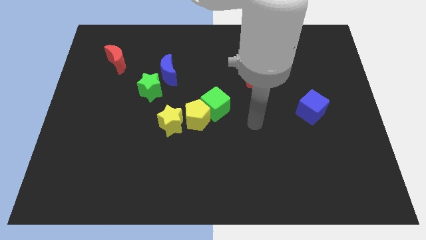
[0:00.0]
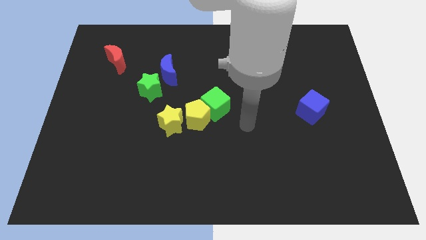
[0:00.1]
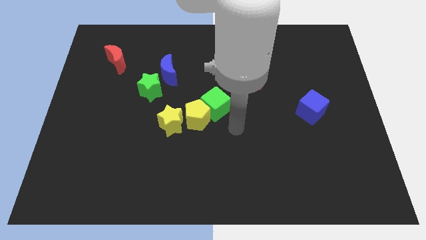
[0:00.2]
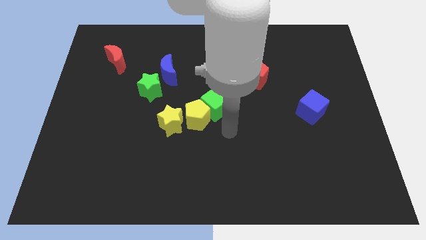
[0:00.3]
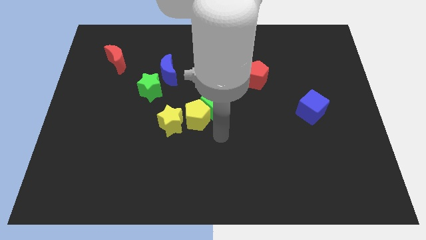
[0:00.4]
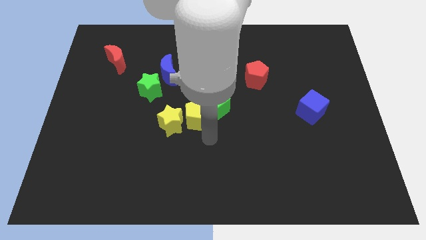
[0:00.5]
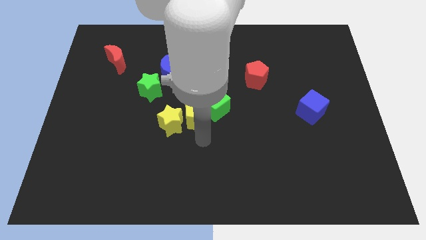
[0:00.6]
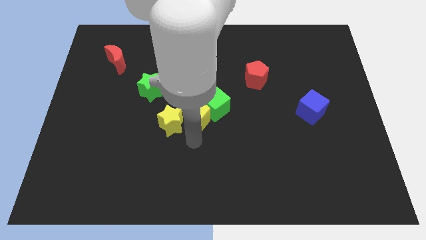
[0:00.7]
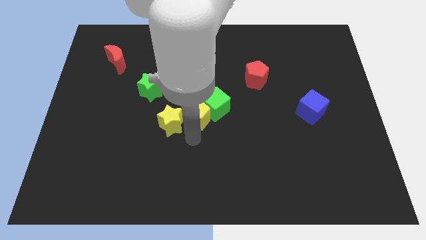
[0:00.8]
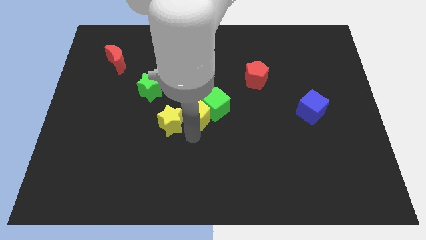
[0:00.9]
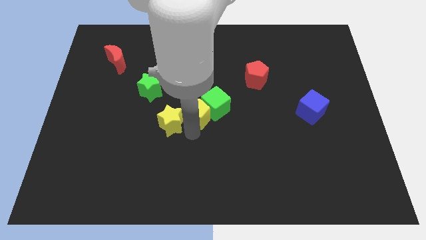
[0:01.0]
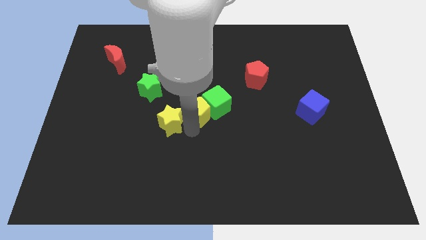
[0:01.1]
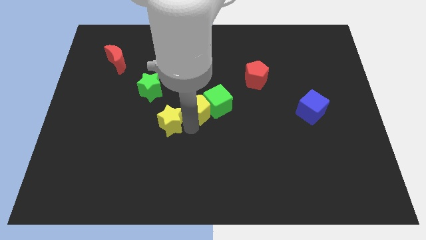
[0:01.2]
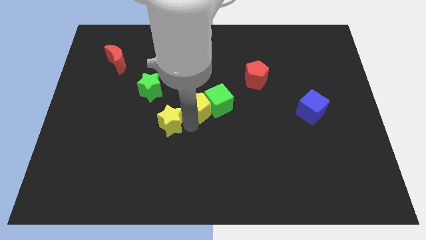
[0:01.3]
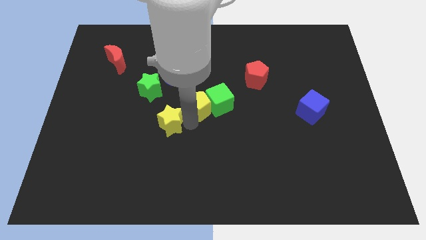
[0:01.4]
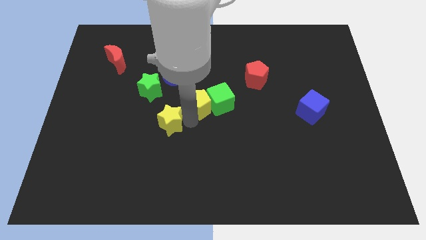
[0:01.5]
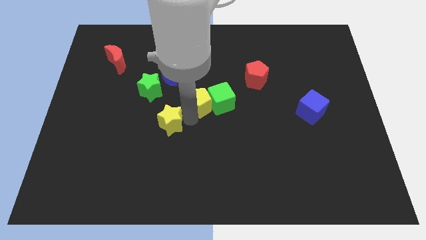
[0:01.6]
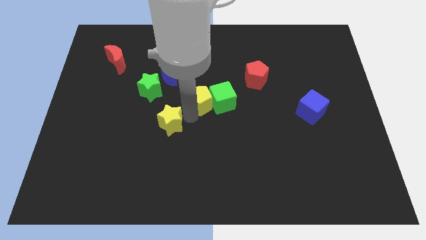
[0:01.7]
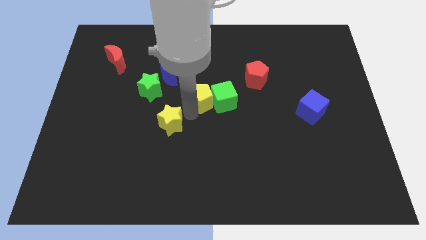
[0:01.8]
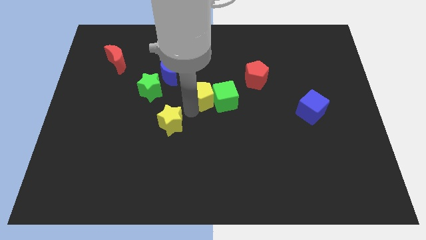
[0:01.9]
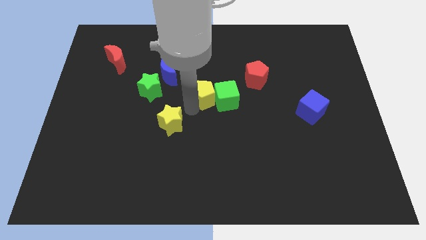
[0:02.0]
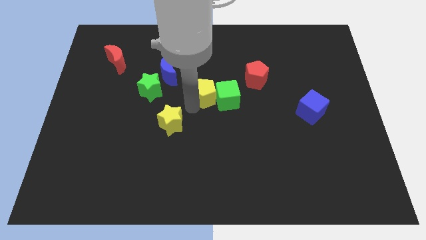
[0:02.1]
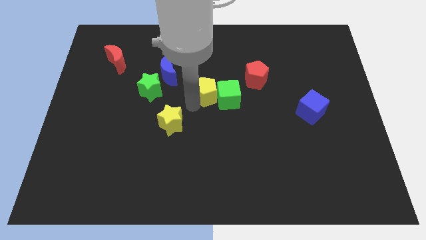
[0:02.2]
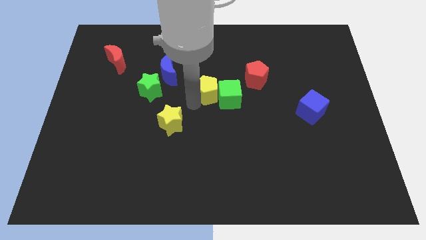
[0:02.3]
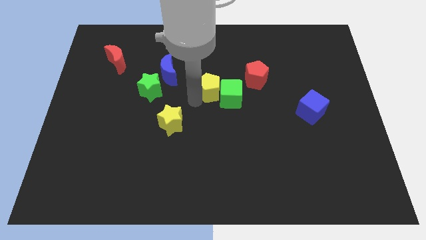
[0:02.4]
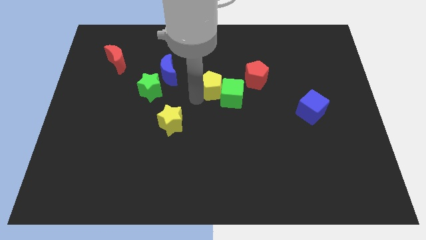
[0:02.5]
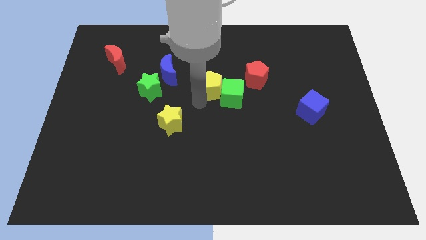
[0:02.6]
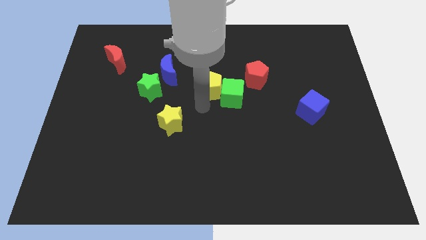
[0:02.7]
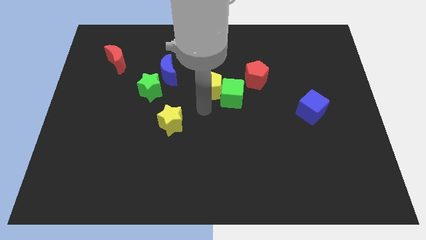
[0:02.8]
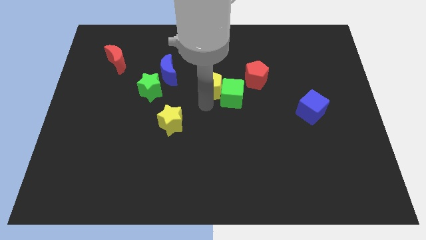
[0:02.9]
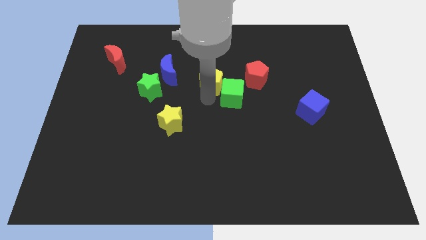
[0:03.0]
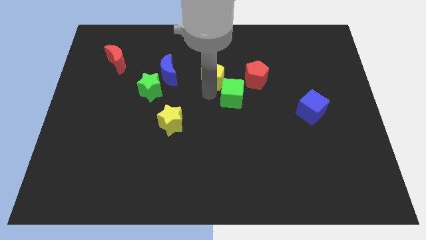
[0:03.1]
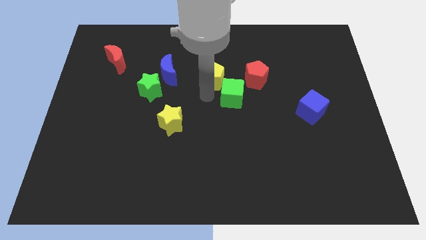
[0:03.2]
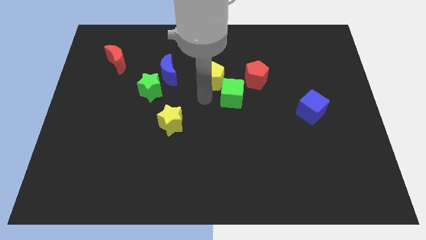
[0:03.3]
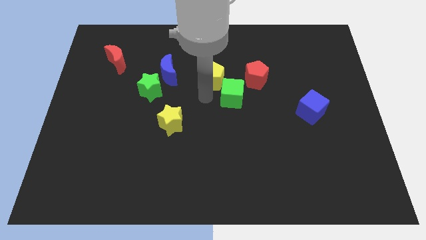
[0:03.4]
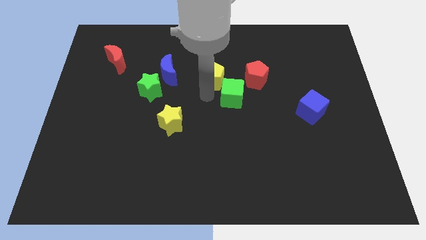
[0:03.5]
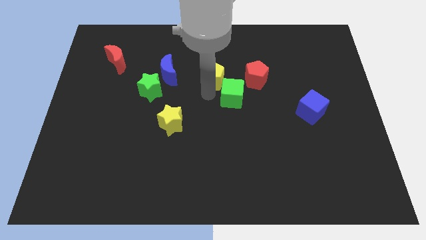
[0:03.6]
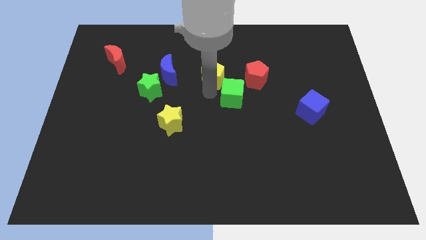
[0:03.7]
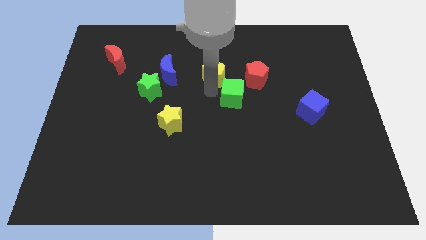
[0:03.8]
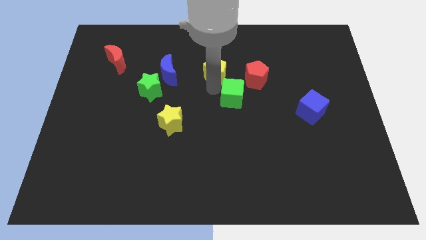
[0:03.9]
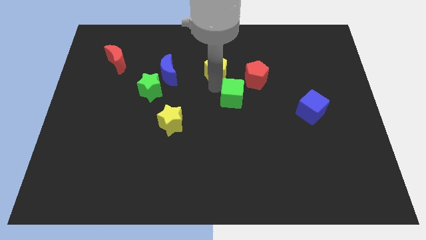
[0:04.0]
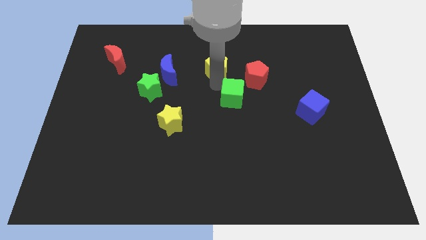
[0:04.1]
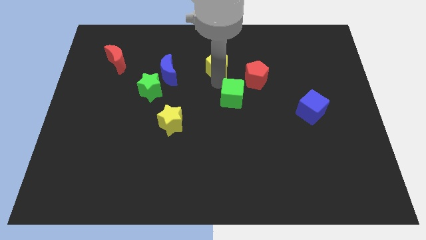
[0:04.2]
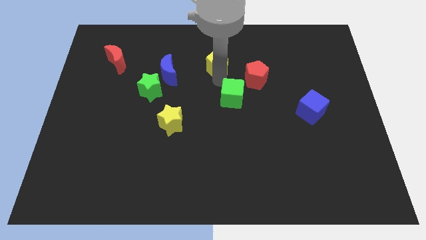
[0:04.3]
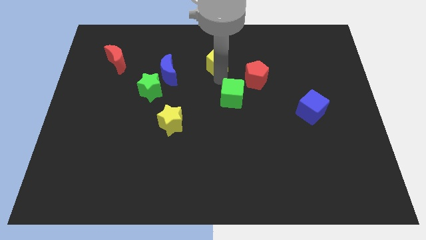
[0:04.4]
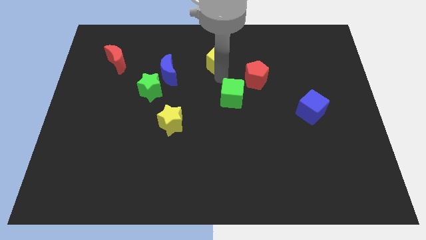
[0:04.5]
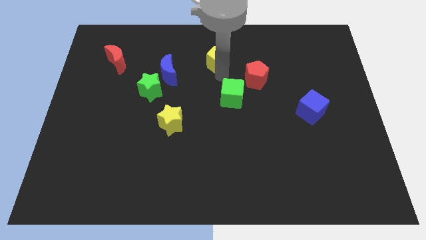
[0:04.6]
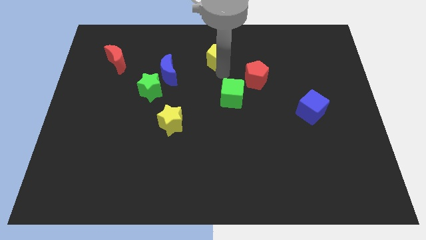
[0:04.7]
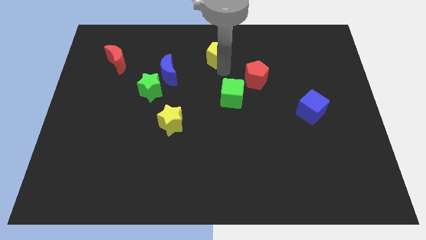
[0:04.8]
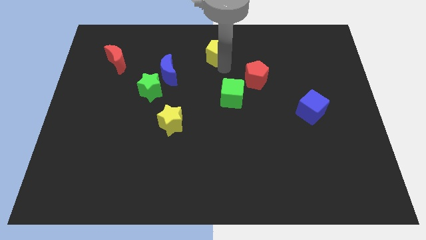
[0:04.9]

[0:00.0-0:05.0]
put the yellow pentagon to the towards your base

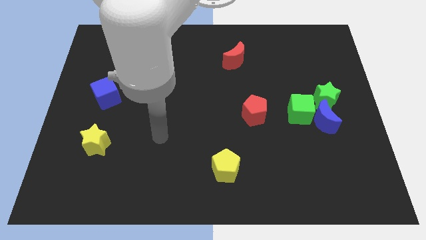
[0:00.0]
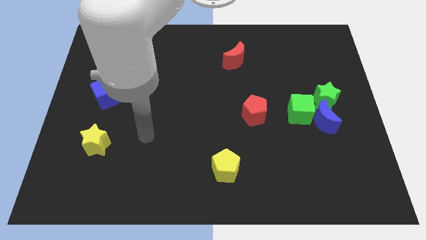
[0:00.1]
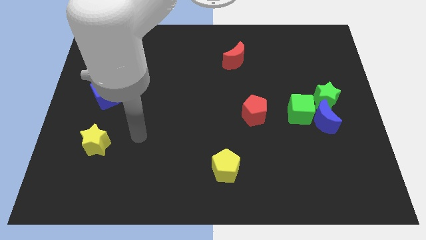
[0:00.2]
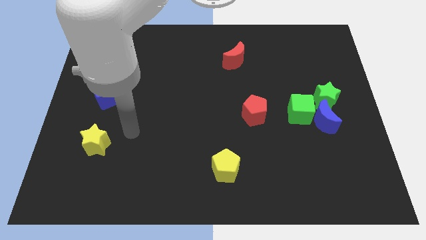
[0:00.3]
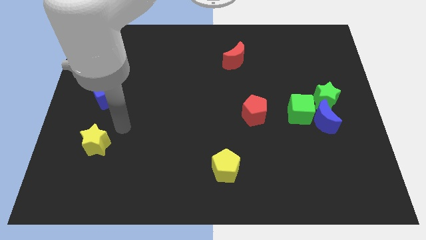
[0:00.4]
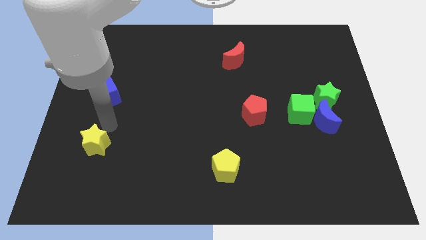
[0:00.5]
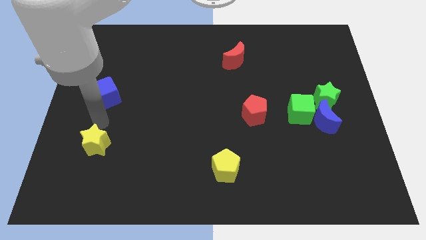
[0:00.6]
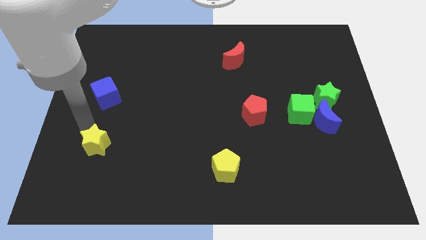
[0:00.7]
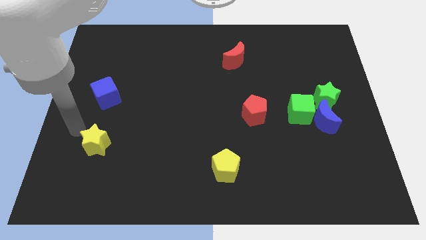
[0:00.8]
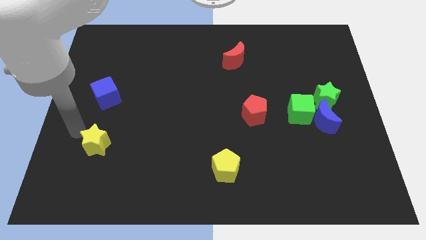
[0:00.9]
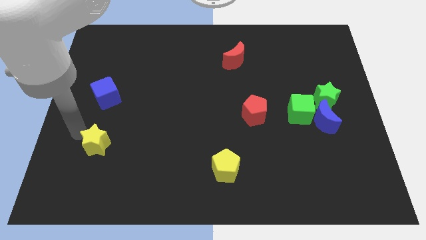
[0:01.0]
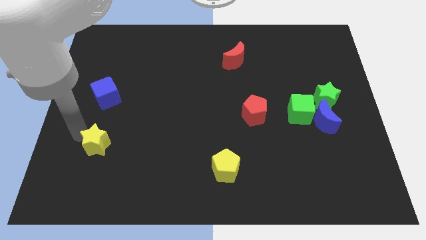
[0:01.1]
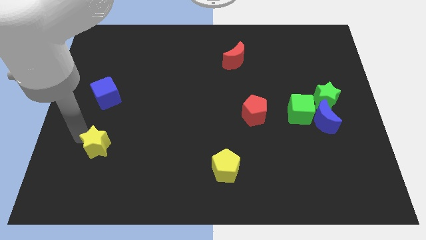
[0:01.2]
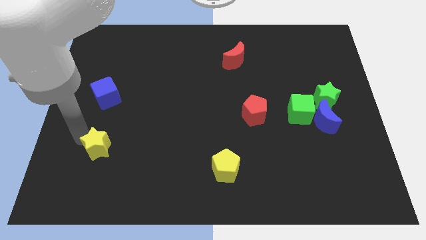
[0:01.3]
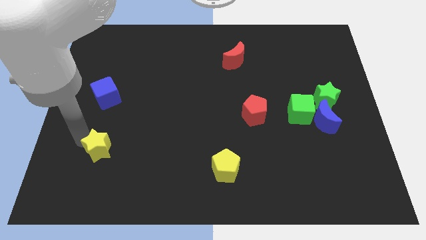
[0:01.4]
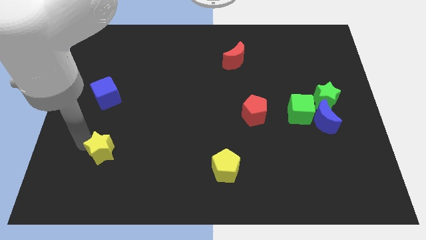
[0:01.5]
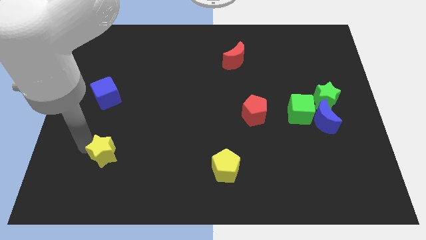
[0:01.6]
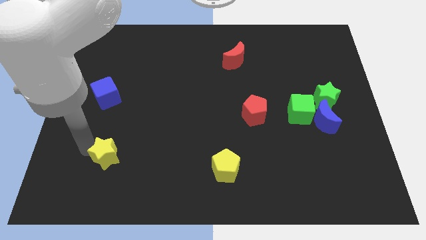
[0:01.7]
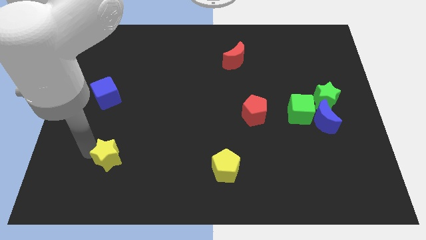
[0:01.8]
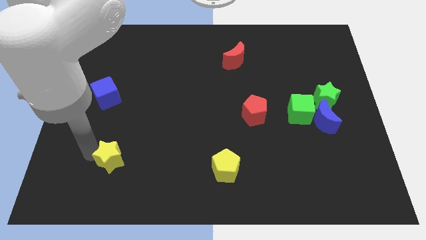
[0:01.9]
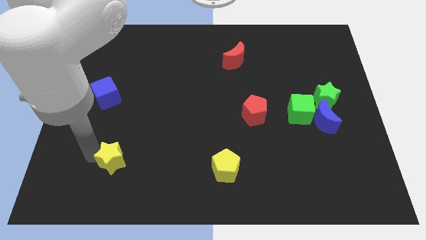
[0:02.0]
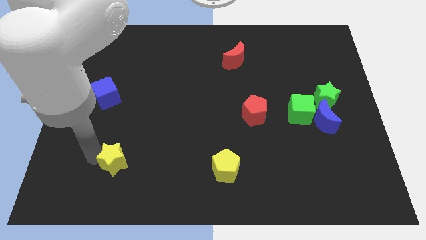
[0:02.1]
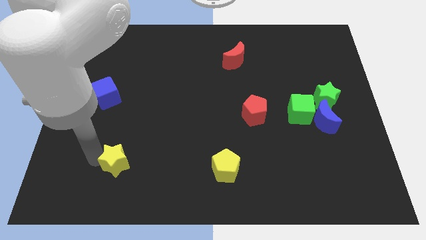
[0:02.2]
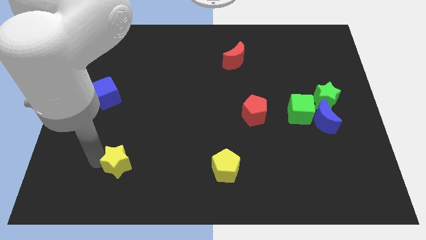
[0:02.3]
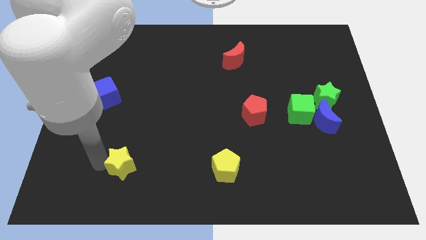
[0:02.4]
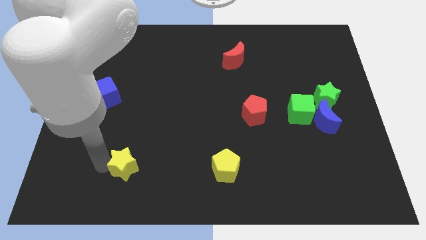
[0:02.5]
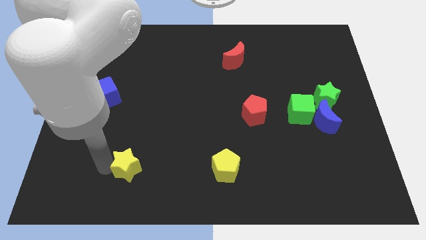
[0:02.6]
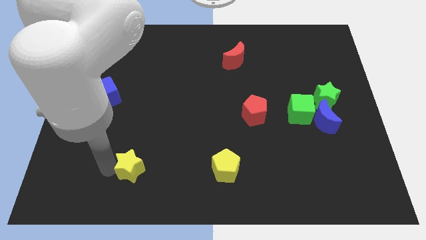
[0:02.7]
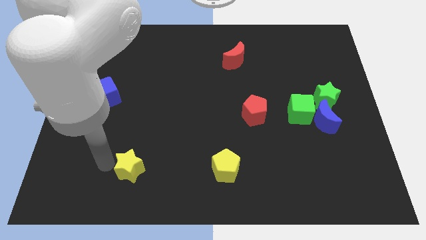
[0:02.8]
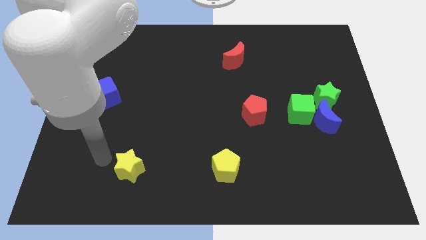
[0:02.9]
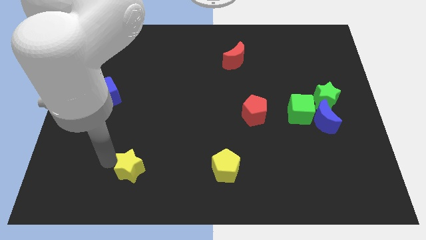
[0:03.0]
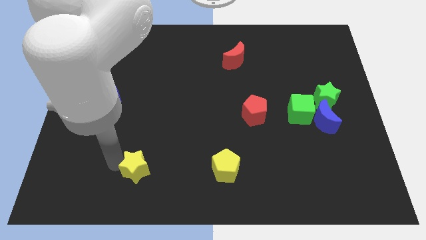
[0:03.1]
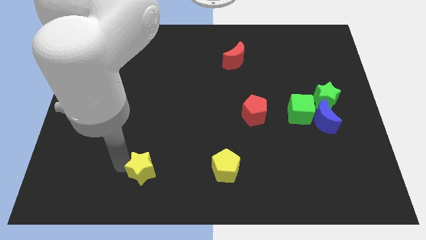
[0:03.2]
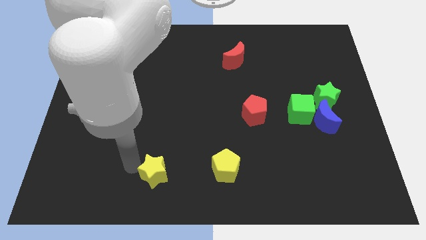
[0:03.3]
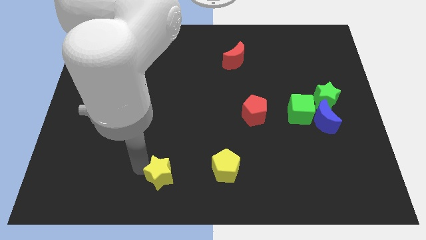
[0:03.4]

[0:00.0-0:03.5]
push the yellow star to the bottom side
